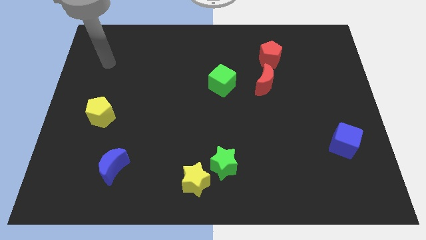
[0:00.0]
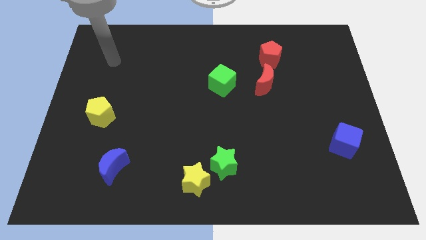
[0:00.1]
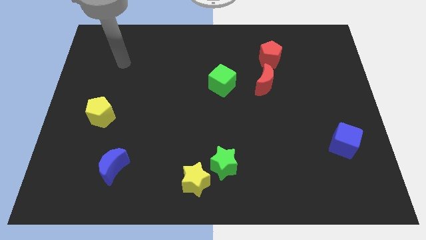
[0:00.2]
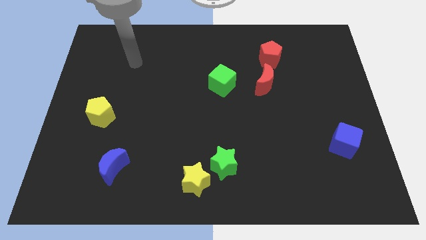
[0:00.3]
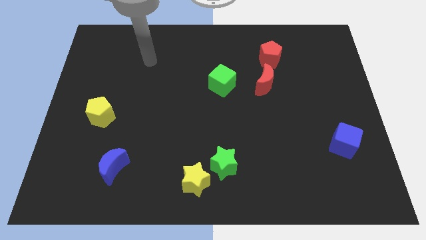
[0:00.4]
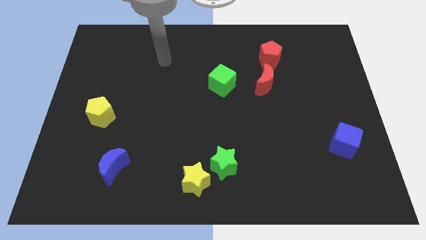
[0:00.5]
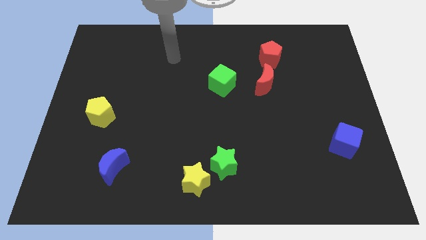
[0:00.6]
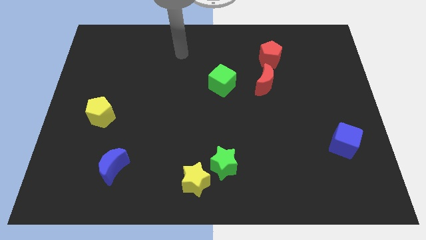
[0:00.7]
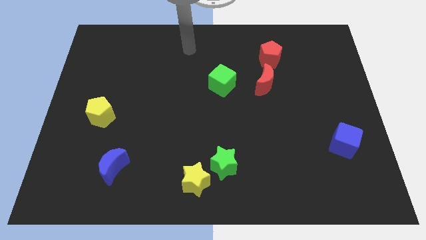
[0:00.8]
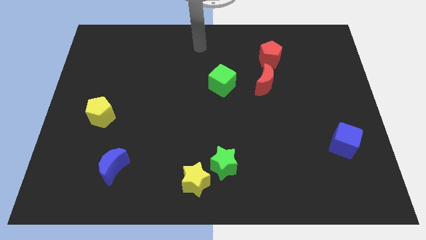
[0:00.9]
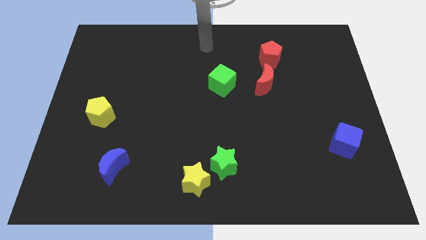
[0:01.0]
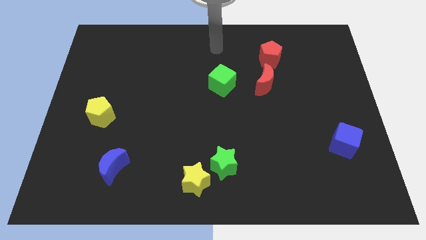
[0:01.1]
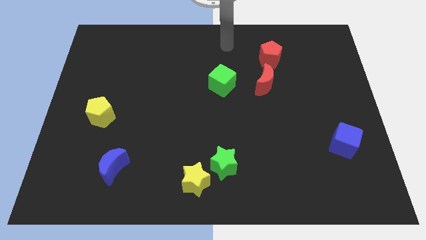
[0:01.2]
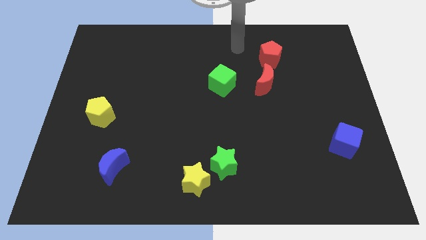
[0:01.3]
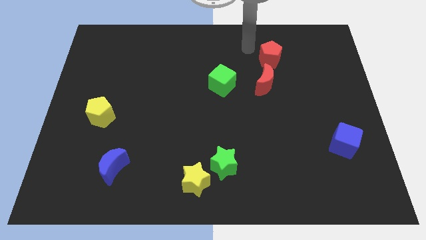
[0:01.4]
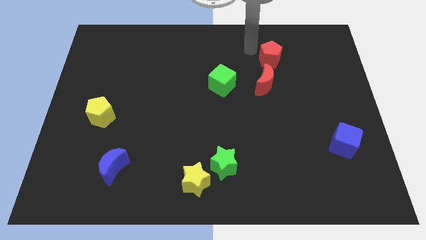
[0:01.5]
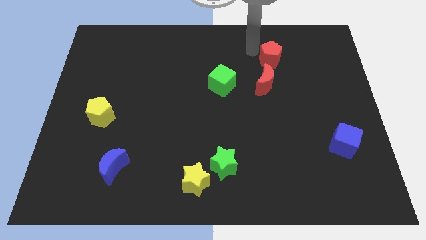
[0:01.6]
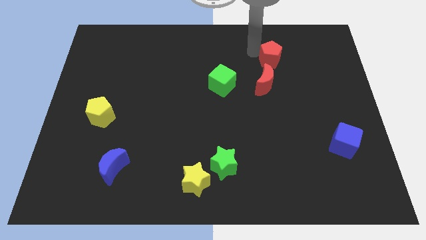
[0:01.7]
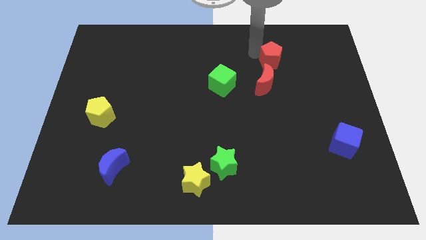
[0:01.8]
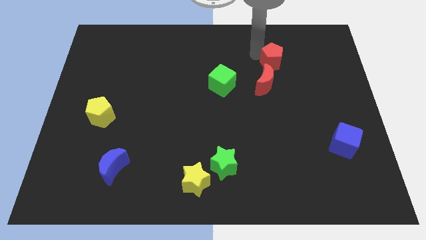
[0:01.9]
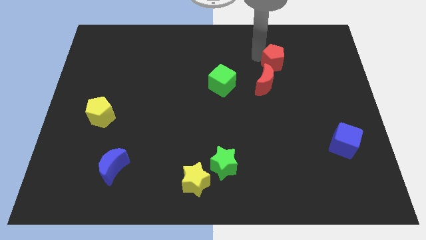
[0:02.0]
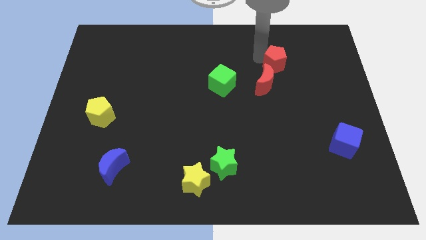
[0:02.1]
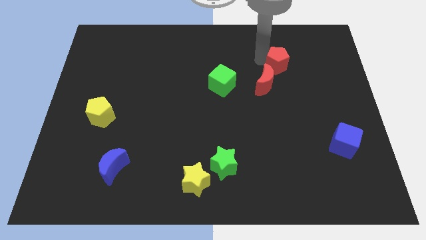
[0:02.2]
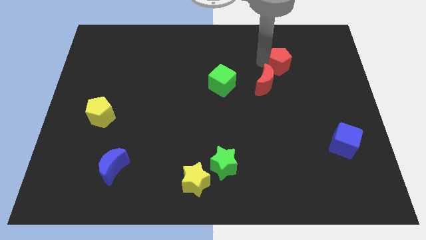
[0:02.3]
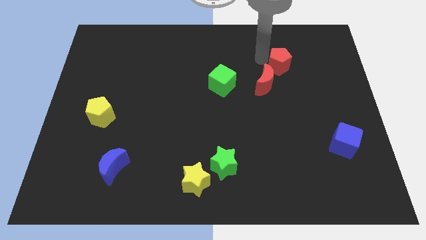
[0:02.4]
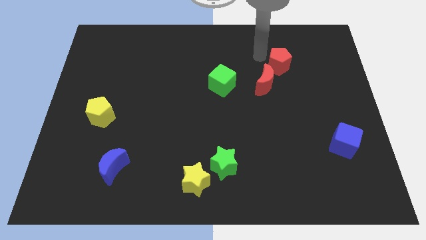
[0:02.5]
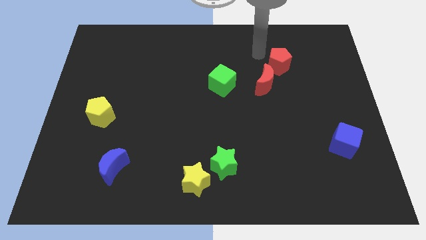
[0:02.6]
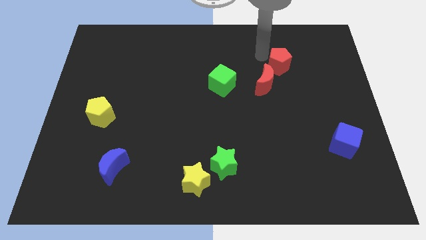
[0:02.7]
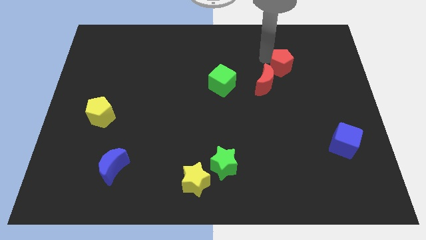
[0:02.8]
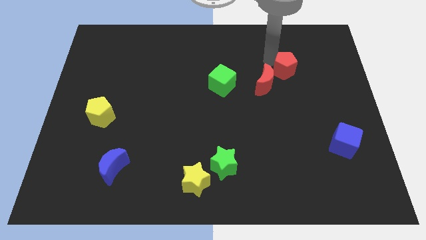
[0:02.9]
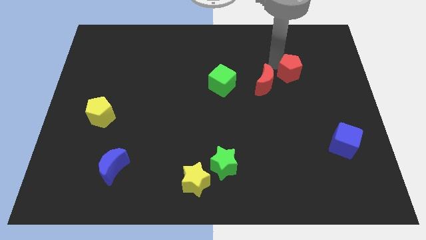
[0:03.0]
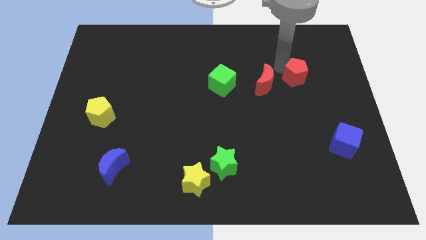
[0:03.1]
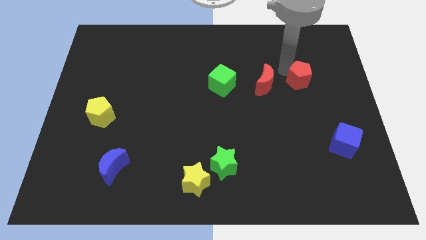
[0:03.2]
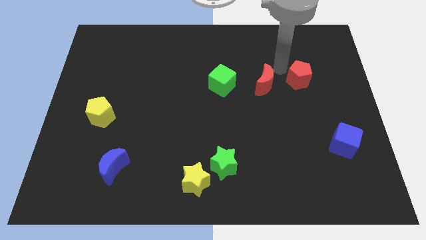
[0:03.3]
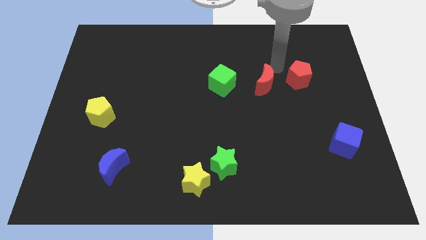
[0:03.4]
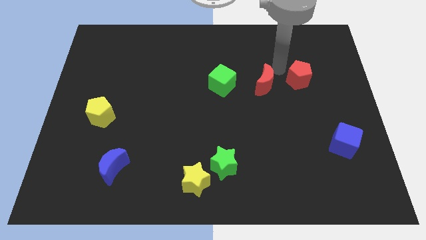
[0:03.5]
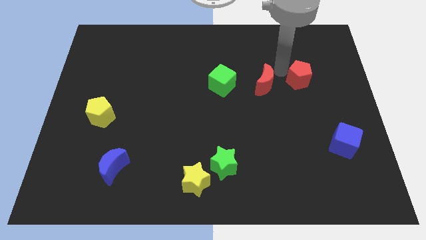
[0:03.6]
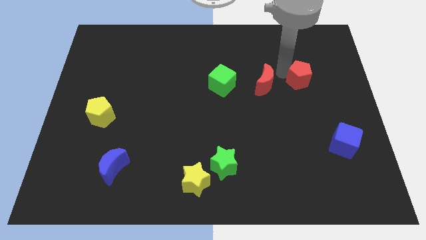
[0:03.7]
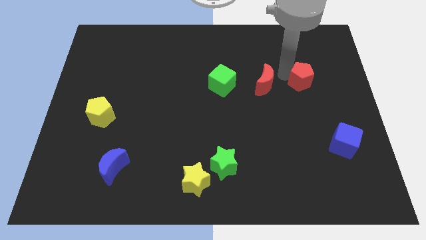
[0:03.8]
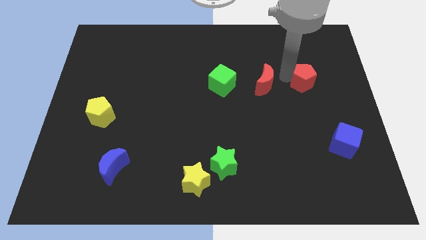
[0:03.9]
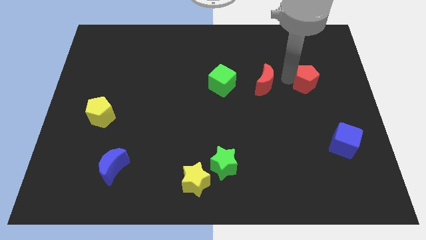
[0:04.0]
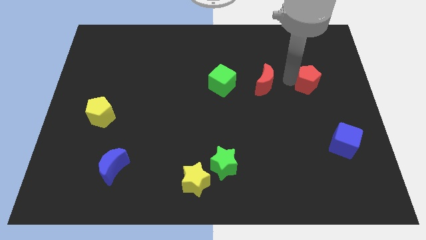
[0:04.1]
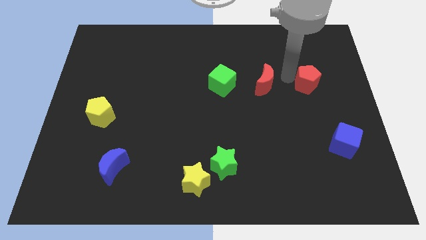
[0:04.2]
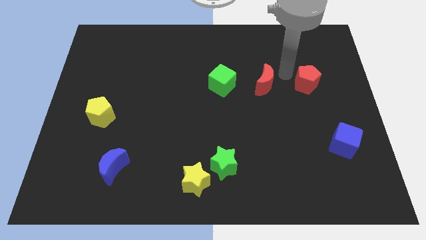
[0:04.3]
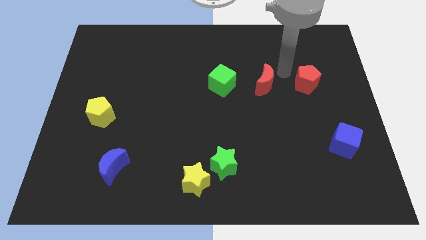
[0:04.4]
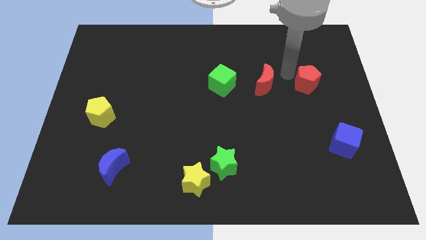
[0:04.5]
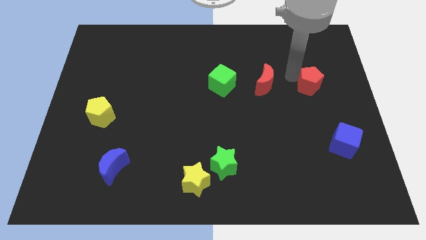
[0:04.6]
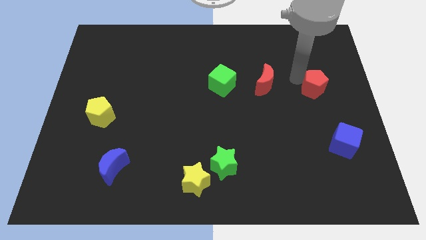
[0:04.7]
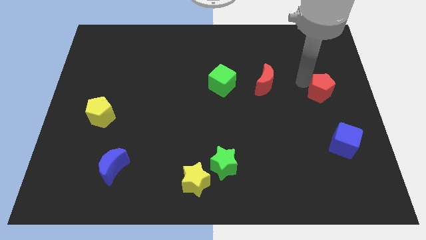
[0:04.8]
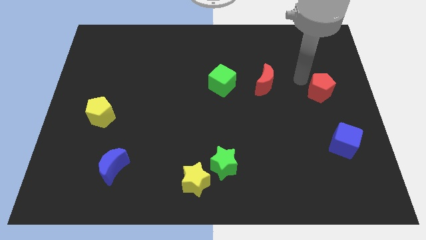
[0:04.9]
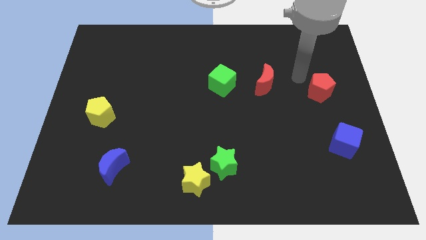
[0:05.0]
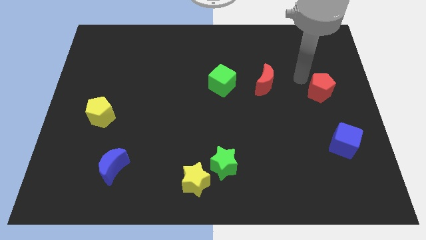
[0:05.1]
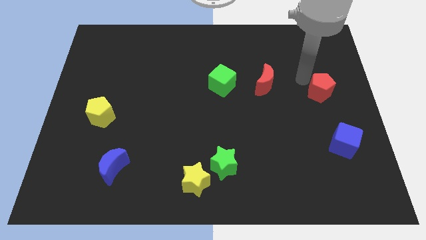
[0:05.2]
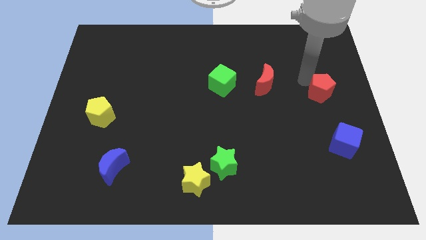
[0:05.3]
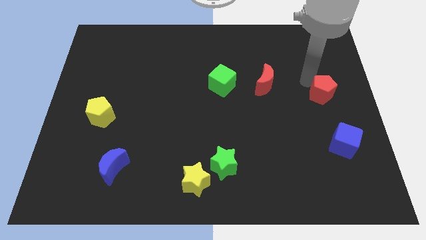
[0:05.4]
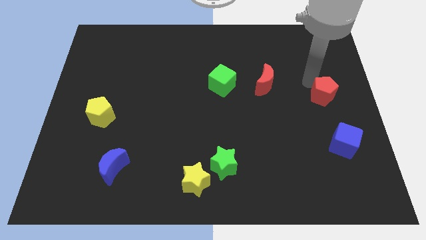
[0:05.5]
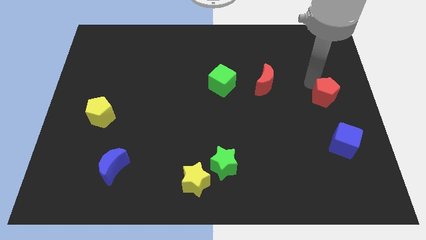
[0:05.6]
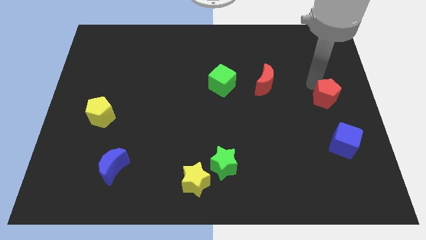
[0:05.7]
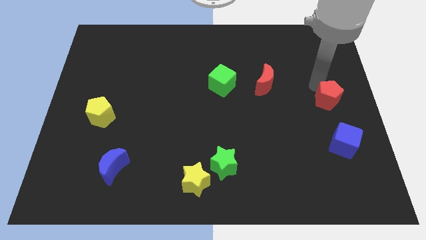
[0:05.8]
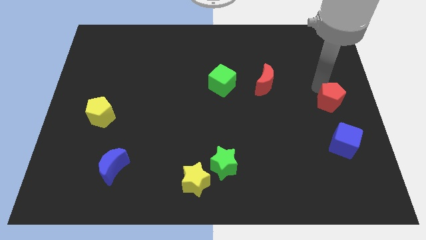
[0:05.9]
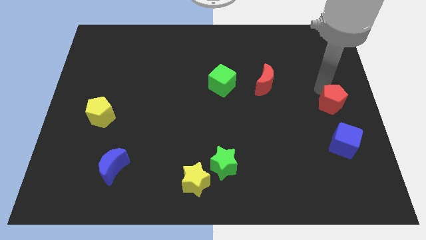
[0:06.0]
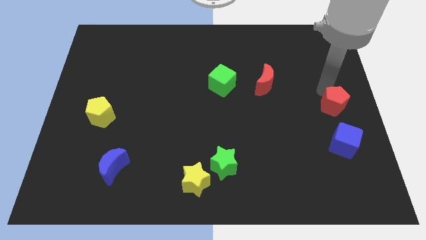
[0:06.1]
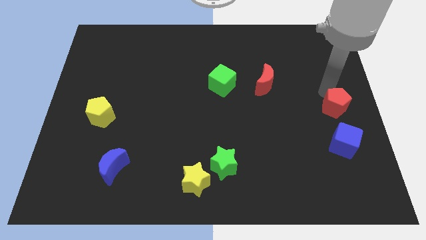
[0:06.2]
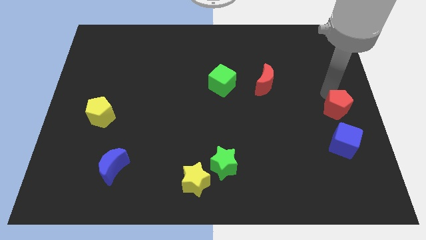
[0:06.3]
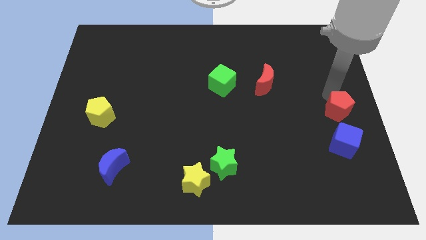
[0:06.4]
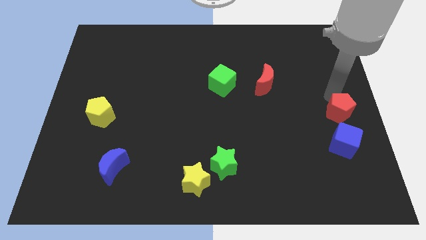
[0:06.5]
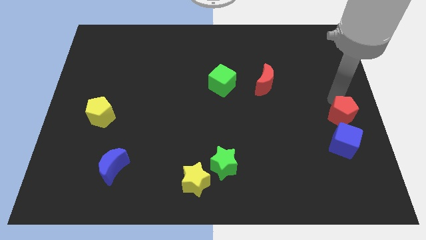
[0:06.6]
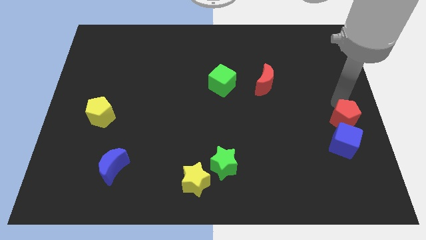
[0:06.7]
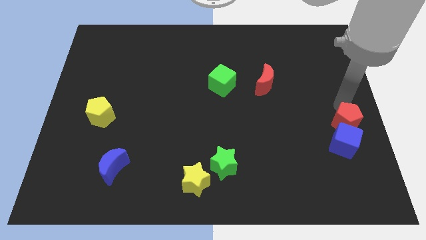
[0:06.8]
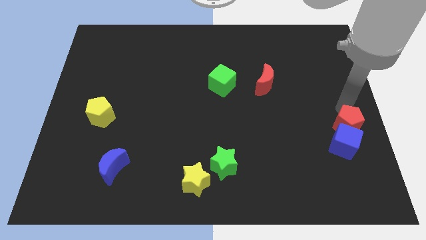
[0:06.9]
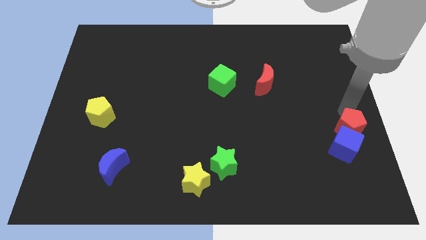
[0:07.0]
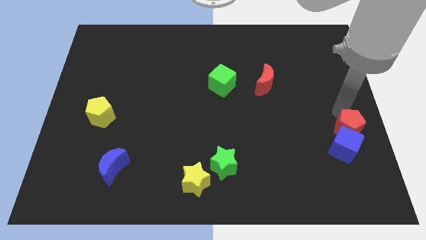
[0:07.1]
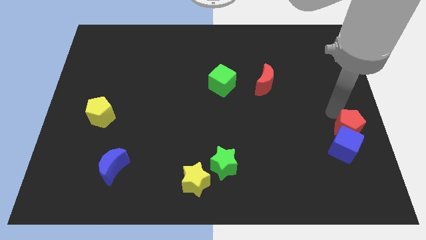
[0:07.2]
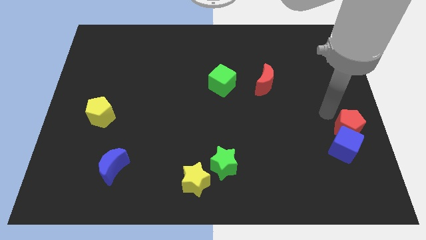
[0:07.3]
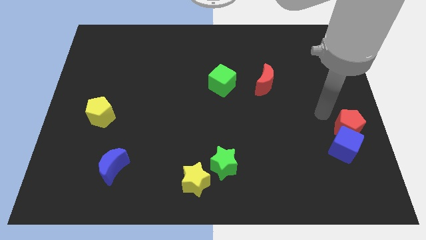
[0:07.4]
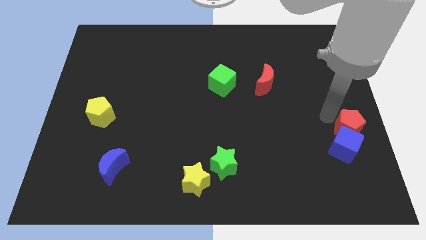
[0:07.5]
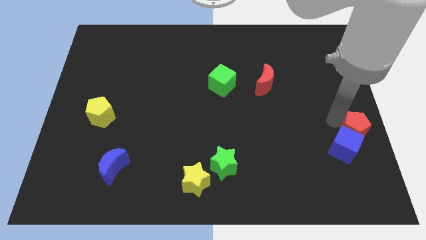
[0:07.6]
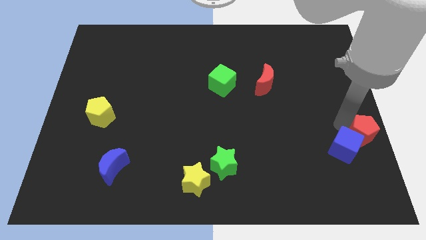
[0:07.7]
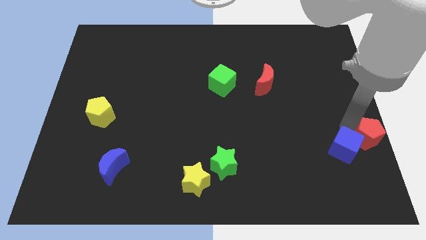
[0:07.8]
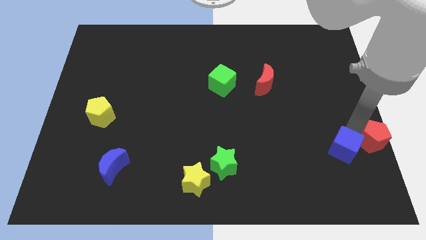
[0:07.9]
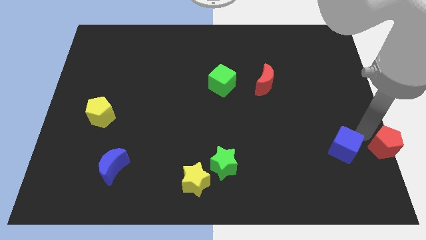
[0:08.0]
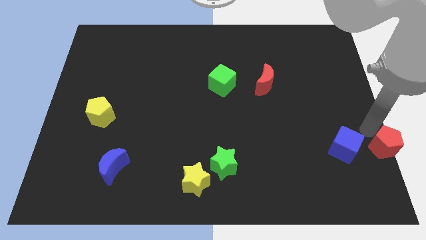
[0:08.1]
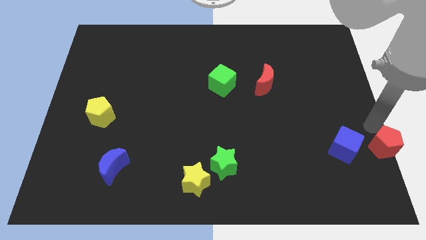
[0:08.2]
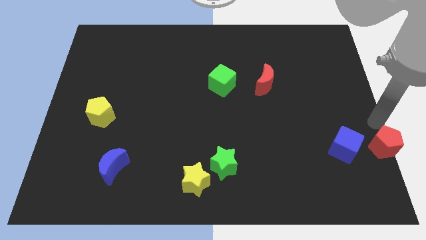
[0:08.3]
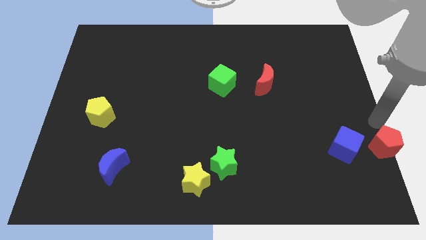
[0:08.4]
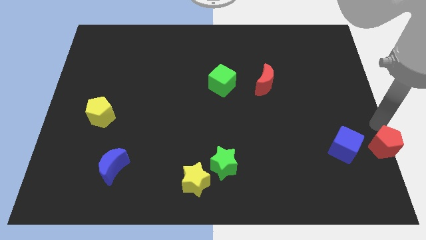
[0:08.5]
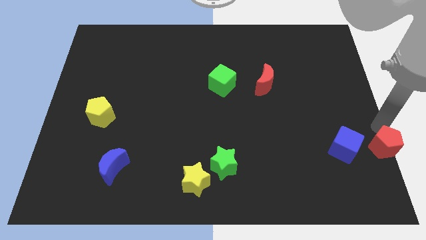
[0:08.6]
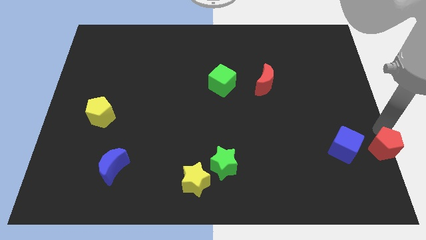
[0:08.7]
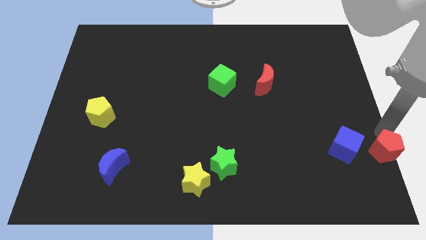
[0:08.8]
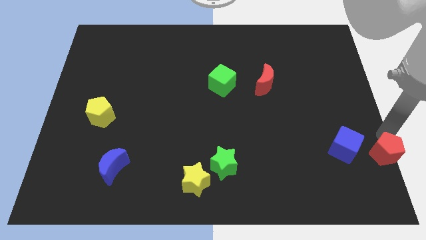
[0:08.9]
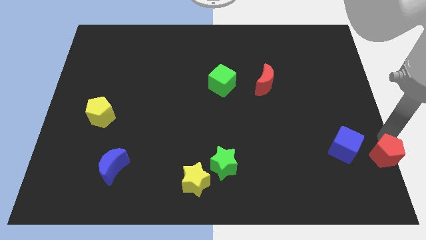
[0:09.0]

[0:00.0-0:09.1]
put the red pentagon to the bottom right corner
